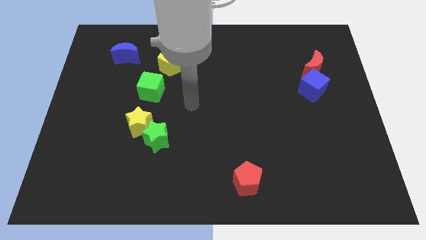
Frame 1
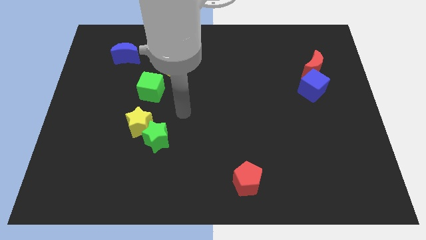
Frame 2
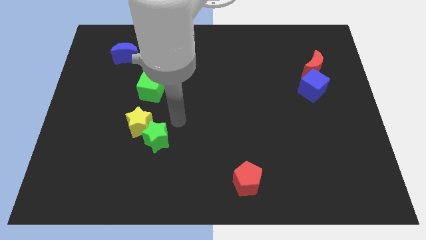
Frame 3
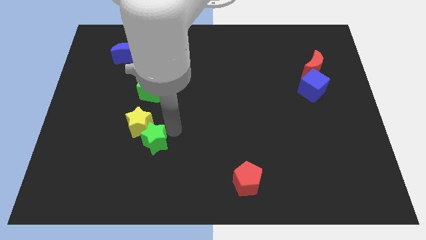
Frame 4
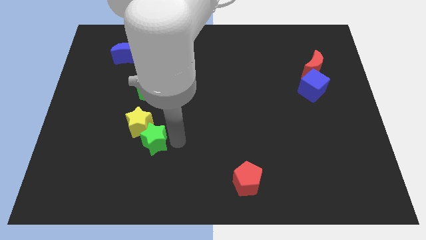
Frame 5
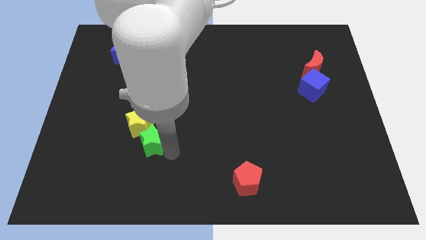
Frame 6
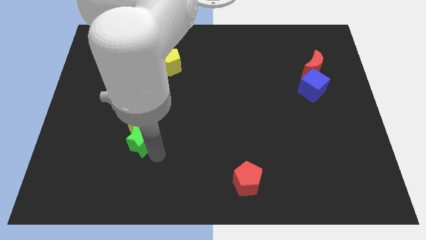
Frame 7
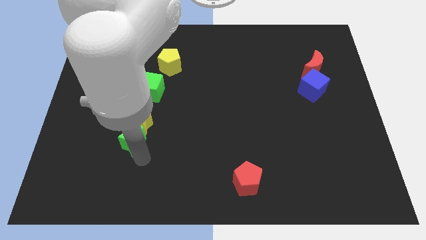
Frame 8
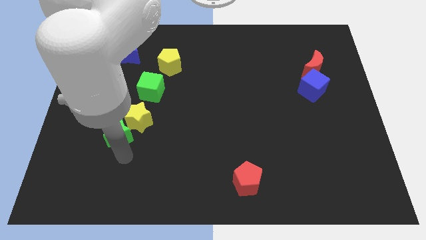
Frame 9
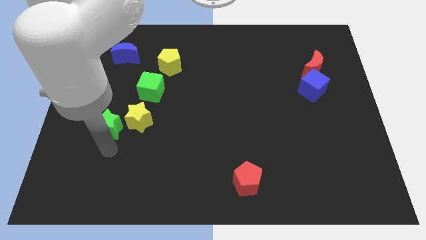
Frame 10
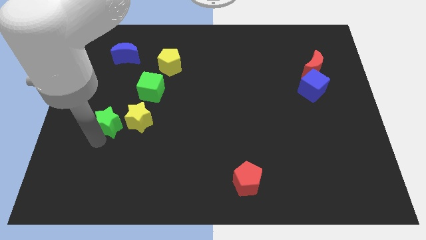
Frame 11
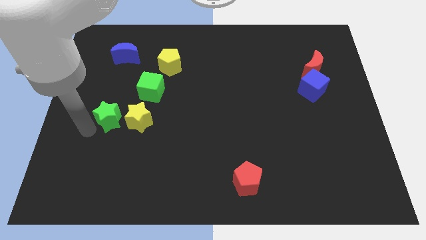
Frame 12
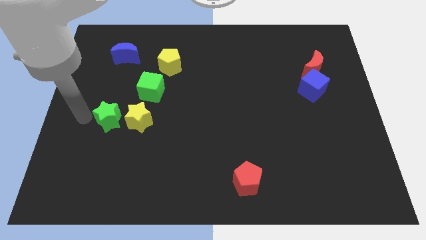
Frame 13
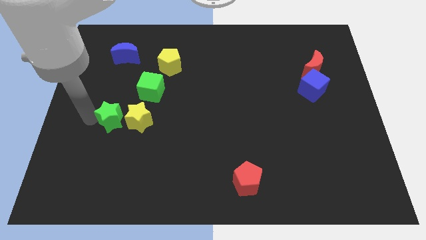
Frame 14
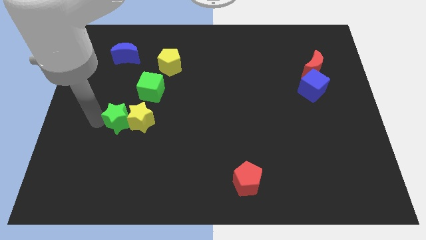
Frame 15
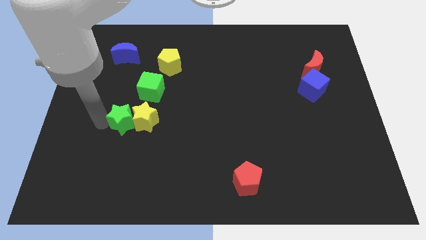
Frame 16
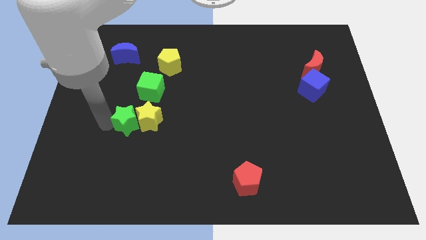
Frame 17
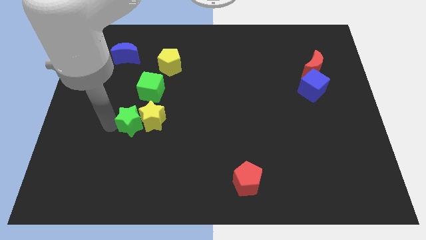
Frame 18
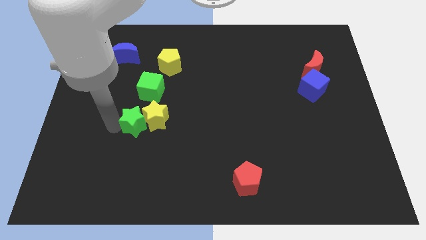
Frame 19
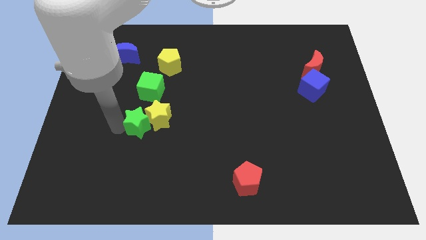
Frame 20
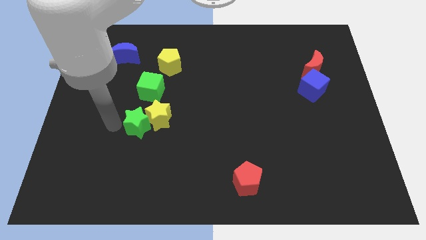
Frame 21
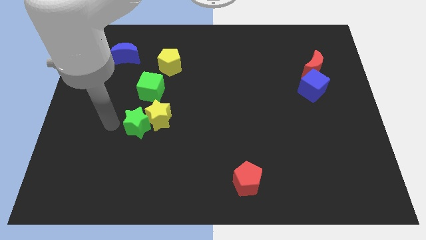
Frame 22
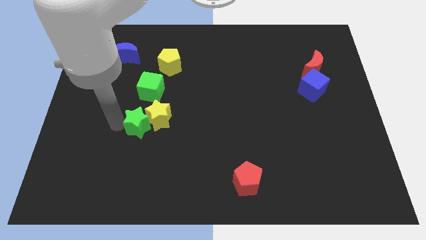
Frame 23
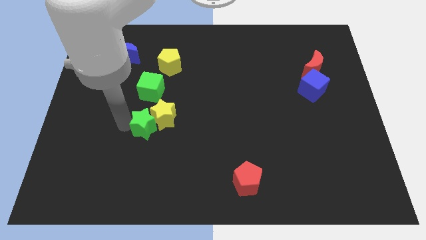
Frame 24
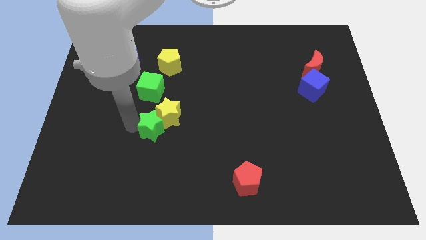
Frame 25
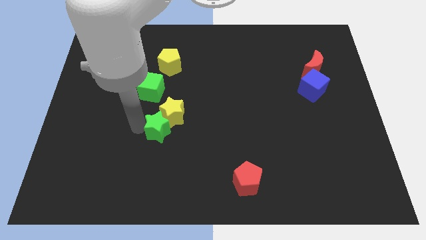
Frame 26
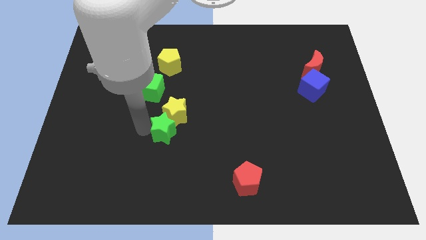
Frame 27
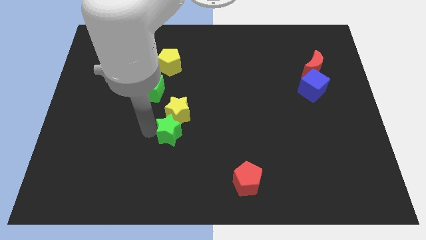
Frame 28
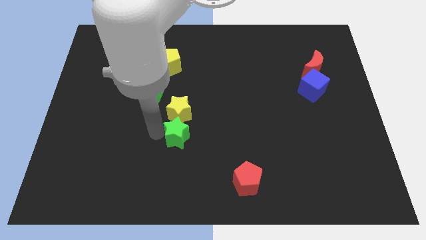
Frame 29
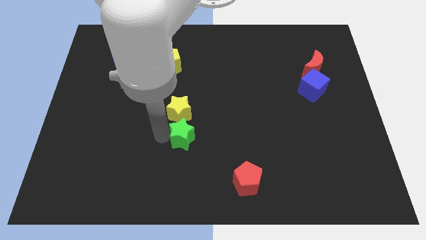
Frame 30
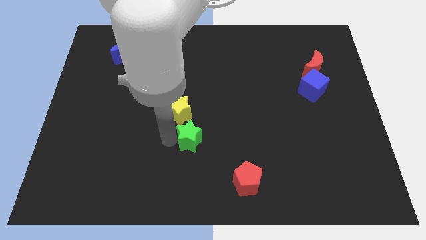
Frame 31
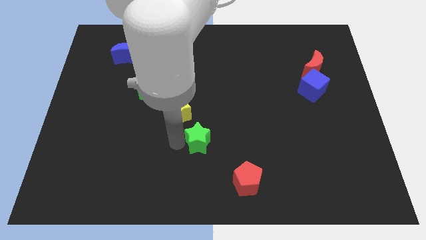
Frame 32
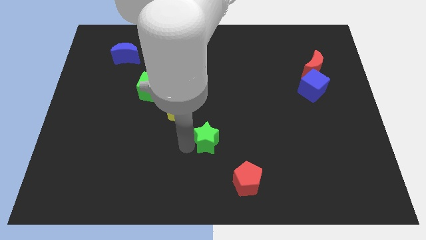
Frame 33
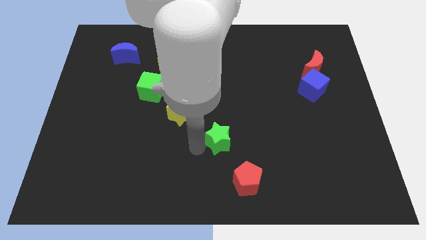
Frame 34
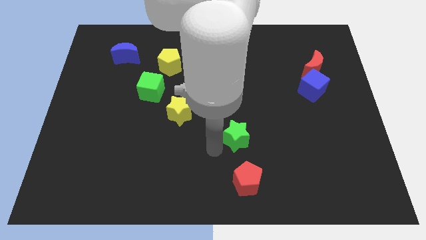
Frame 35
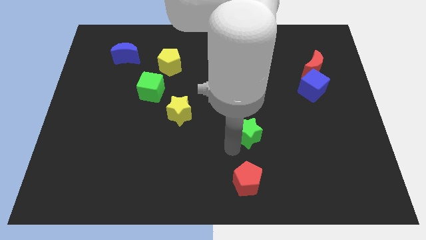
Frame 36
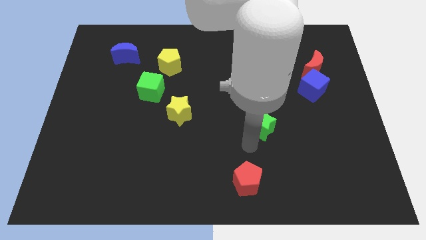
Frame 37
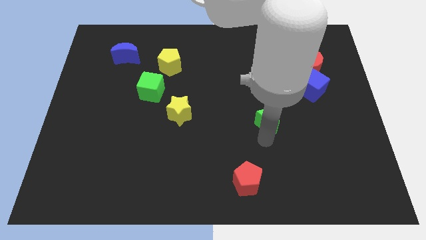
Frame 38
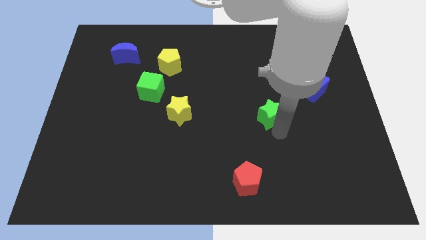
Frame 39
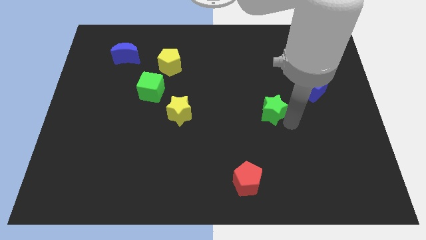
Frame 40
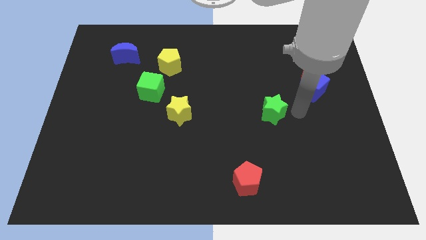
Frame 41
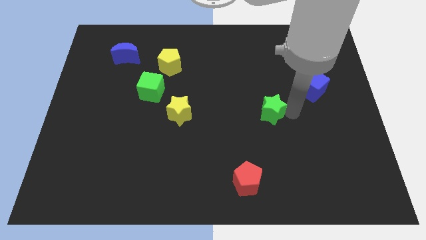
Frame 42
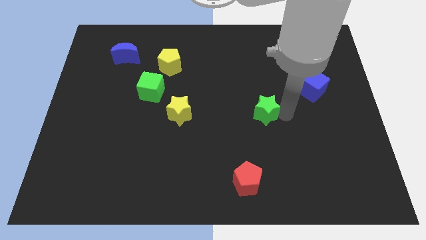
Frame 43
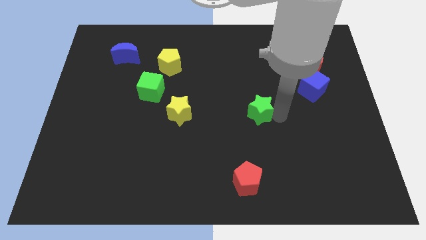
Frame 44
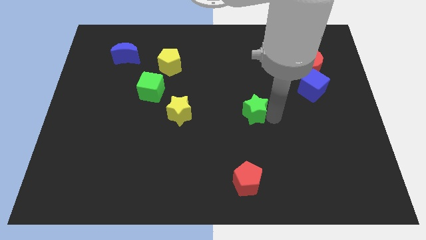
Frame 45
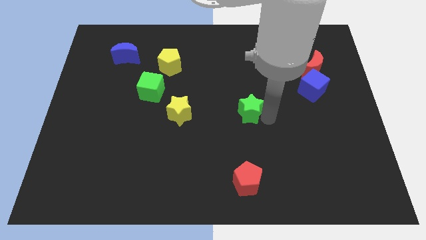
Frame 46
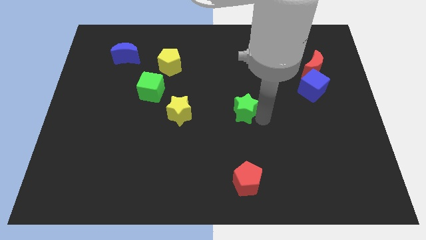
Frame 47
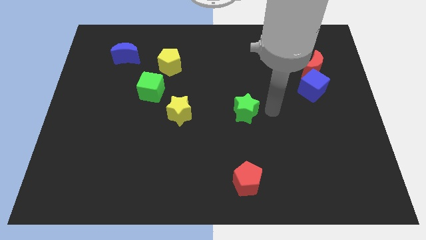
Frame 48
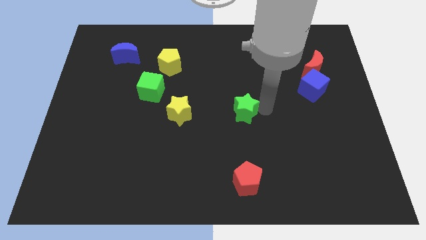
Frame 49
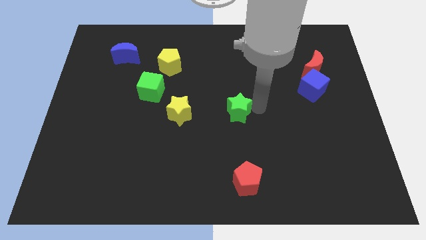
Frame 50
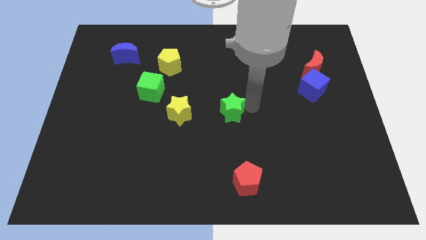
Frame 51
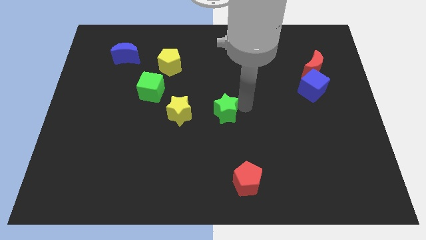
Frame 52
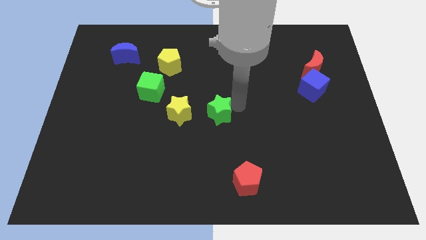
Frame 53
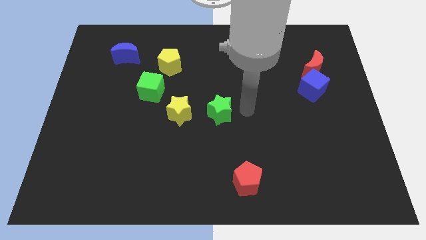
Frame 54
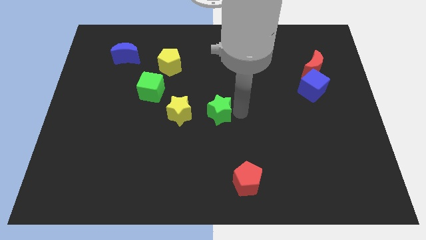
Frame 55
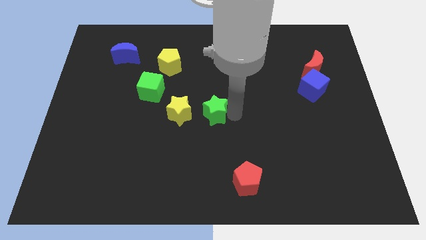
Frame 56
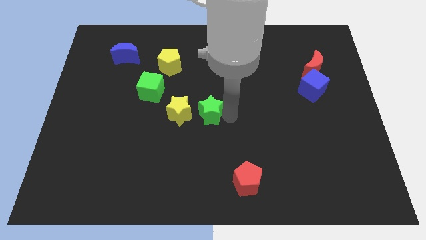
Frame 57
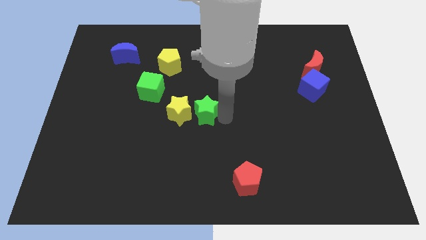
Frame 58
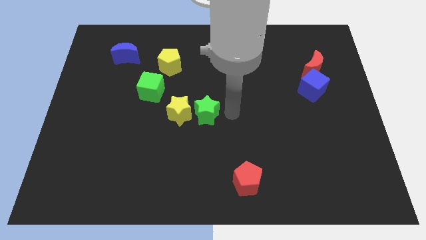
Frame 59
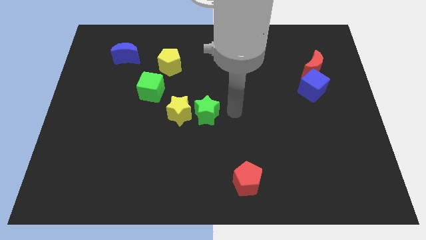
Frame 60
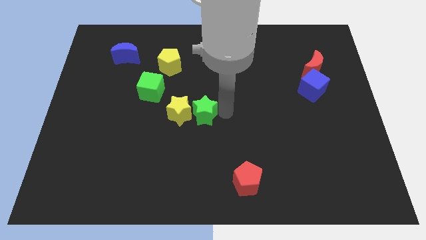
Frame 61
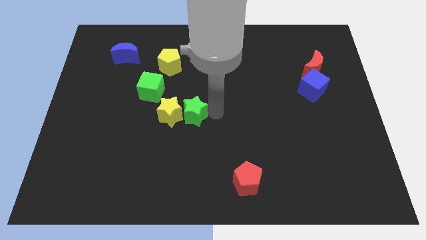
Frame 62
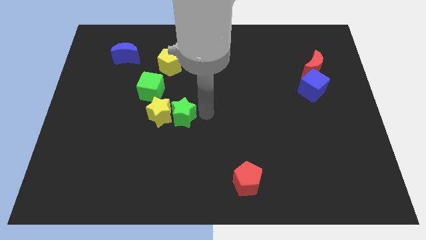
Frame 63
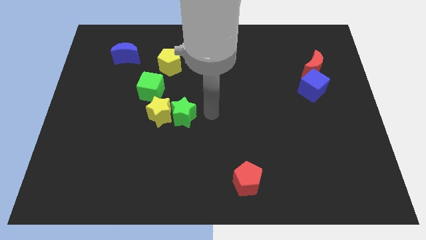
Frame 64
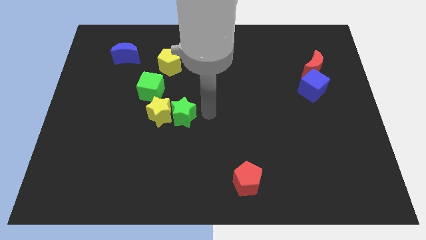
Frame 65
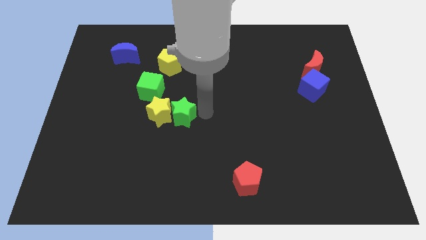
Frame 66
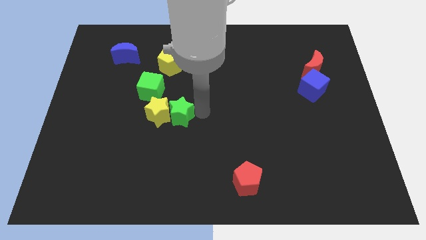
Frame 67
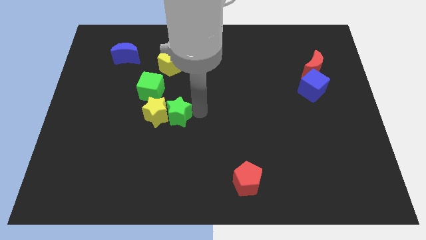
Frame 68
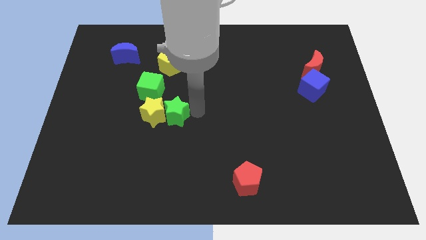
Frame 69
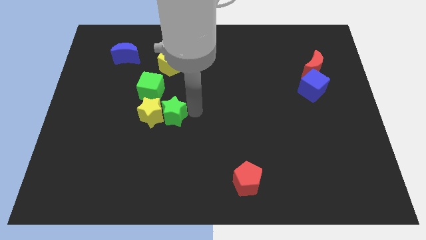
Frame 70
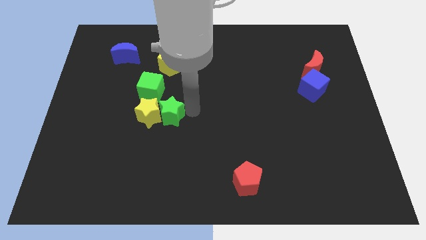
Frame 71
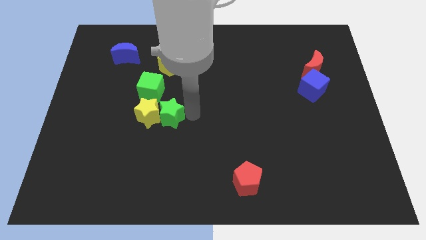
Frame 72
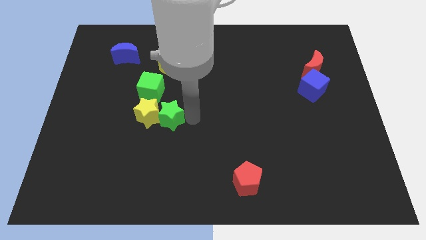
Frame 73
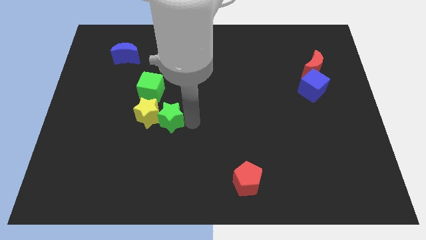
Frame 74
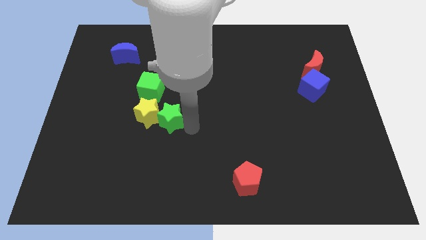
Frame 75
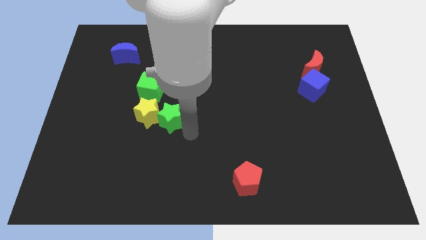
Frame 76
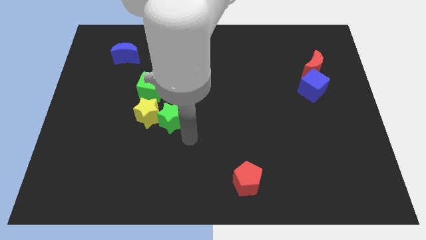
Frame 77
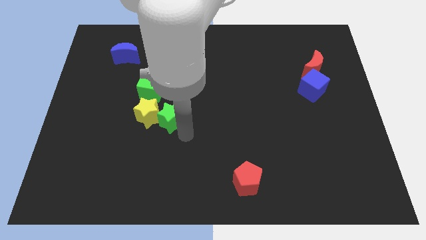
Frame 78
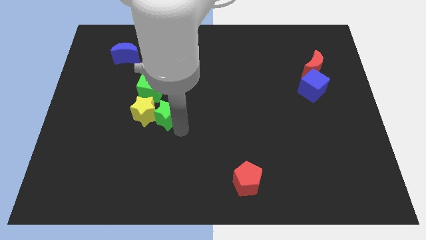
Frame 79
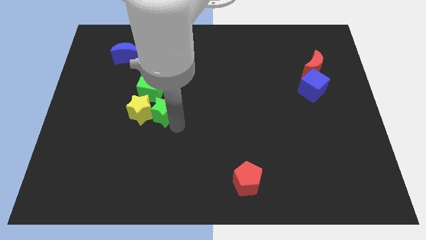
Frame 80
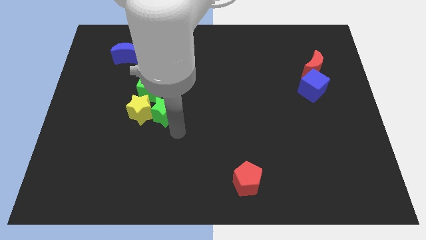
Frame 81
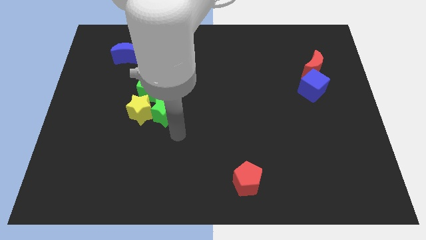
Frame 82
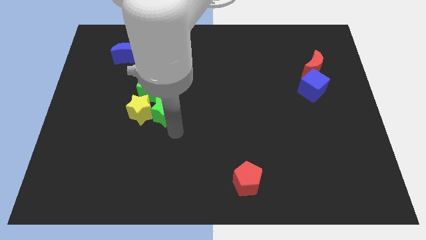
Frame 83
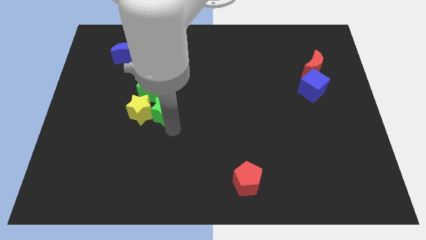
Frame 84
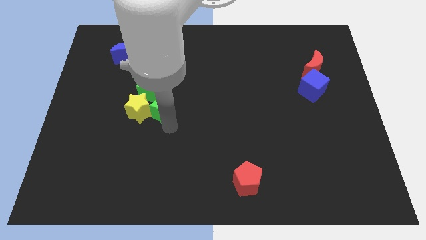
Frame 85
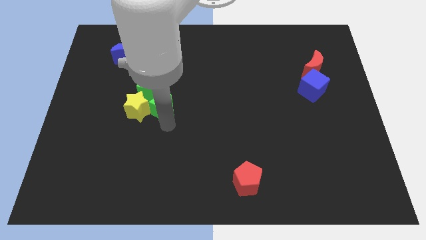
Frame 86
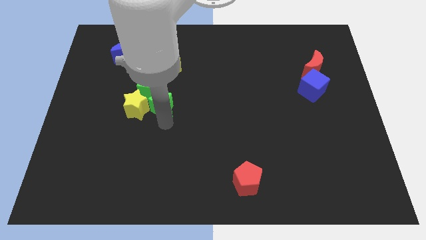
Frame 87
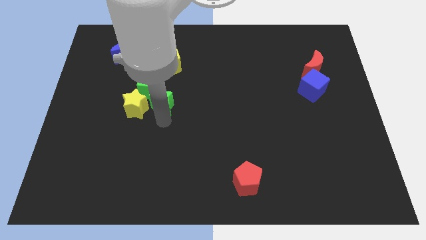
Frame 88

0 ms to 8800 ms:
slide the green star next to the green cube
